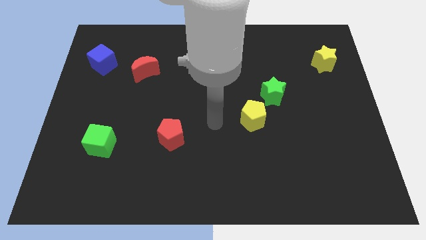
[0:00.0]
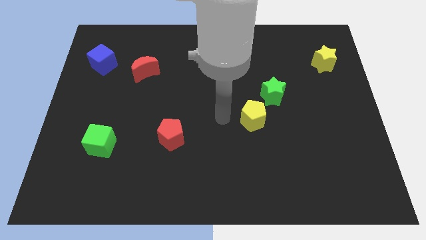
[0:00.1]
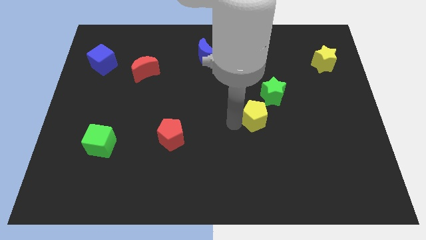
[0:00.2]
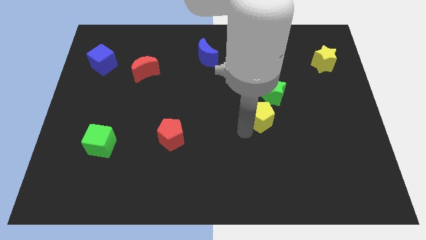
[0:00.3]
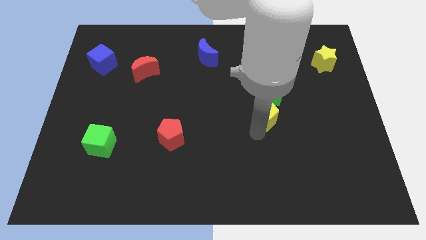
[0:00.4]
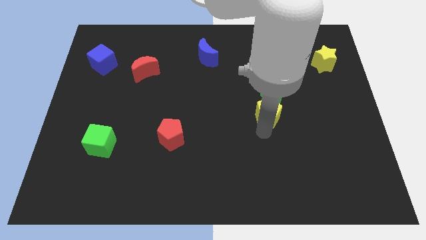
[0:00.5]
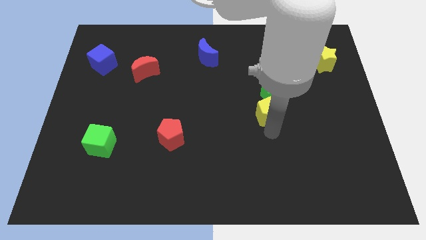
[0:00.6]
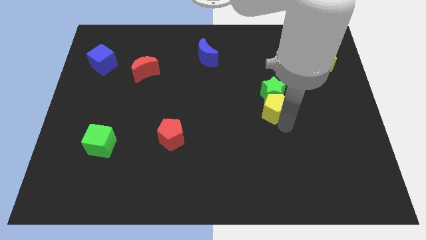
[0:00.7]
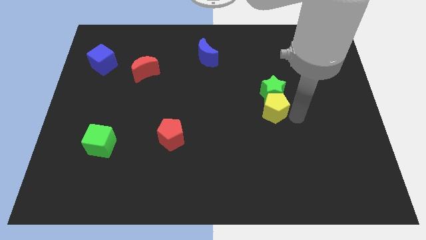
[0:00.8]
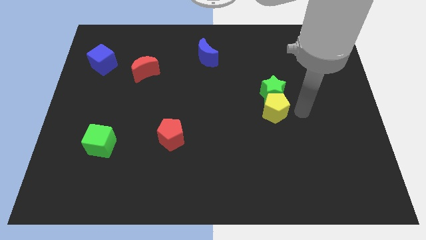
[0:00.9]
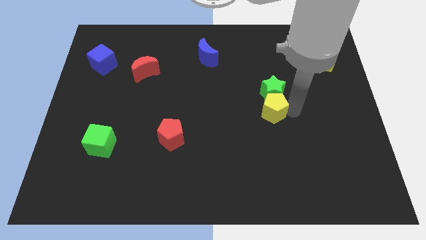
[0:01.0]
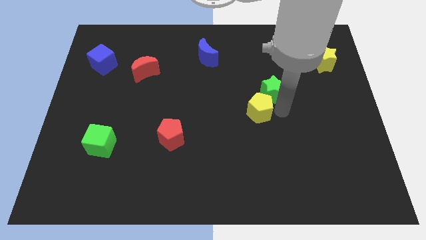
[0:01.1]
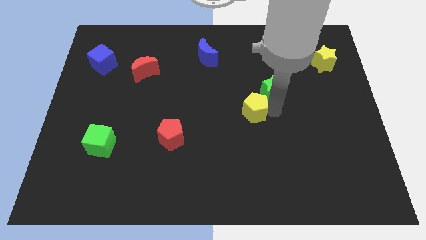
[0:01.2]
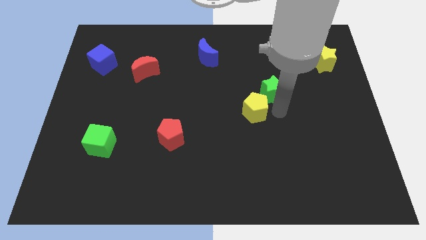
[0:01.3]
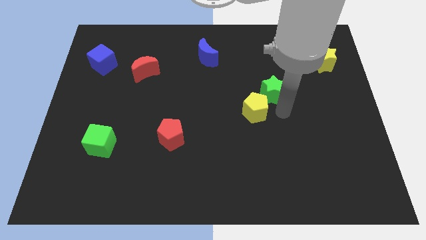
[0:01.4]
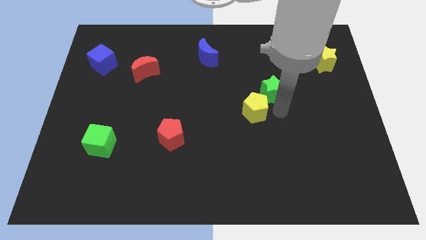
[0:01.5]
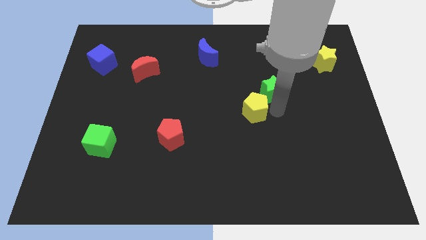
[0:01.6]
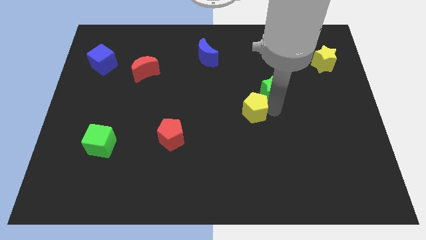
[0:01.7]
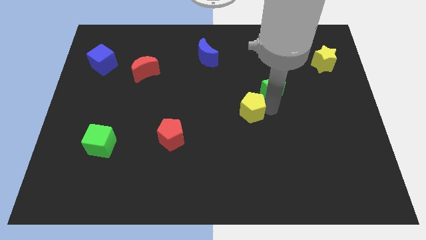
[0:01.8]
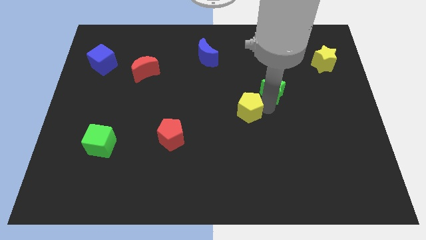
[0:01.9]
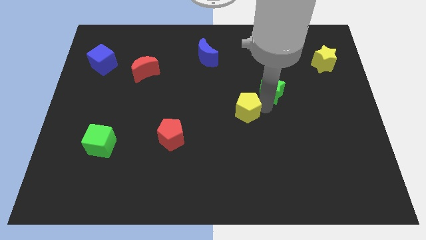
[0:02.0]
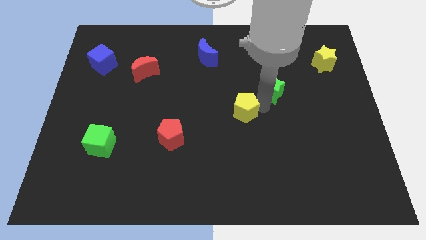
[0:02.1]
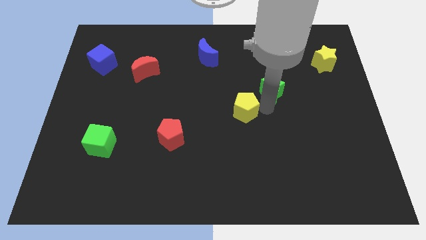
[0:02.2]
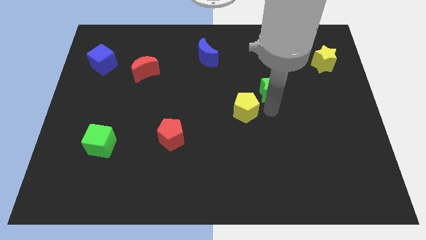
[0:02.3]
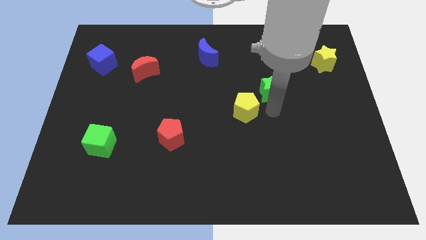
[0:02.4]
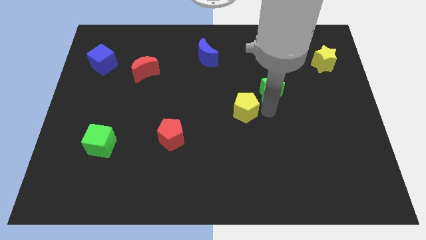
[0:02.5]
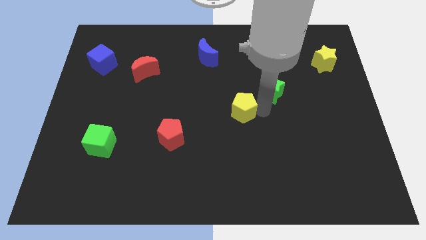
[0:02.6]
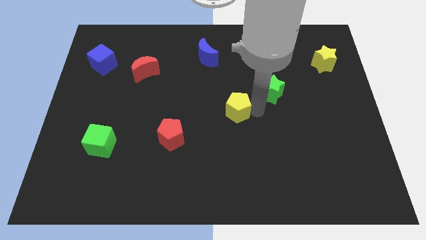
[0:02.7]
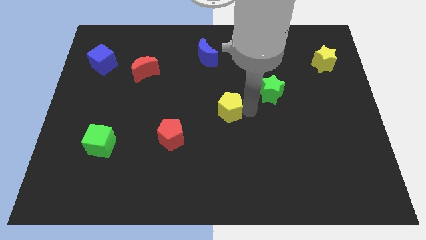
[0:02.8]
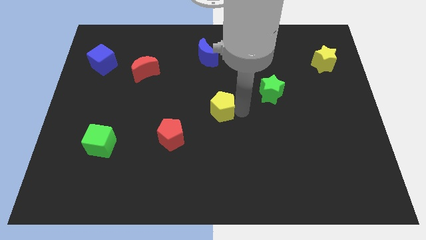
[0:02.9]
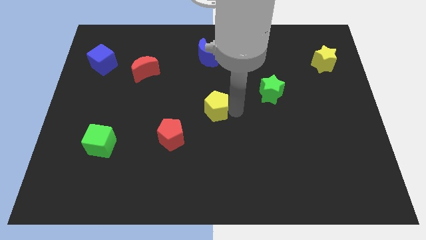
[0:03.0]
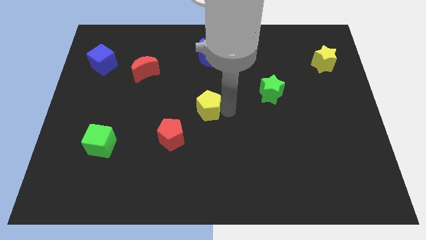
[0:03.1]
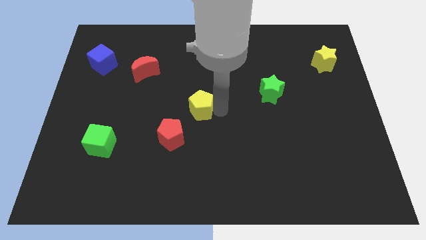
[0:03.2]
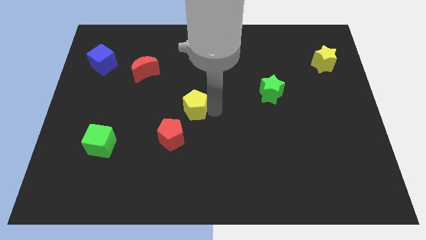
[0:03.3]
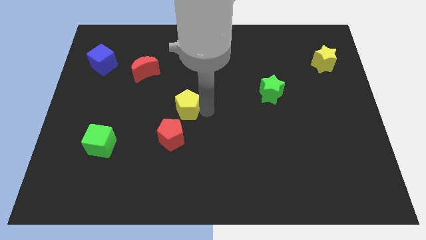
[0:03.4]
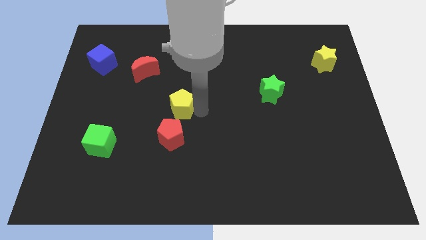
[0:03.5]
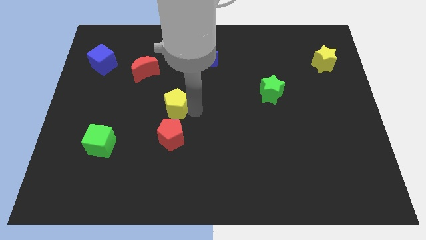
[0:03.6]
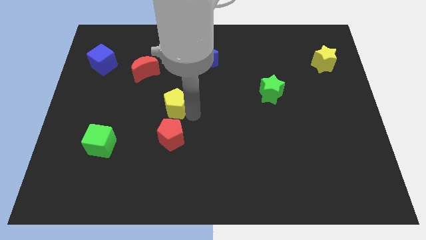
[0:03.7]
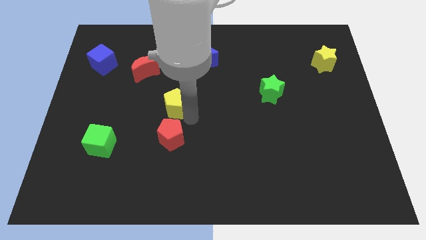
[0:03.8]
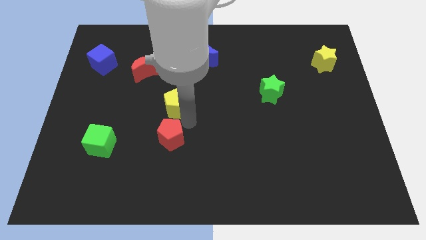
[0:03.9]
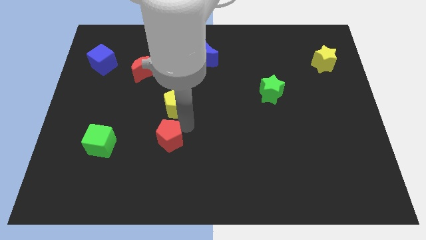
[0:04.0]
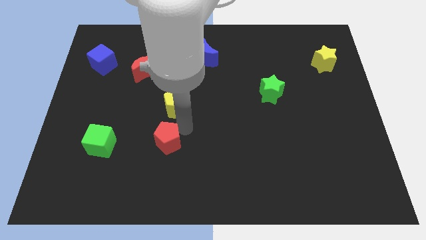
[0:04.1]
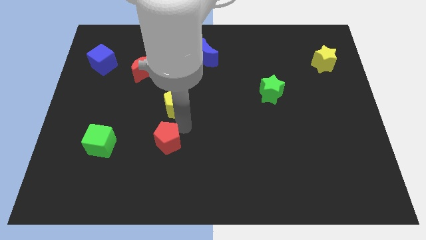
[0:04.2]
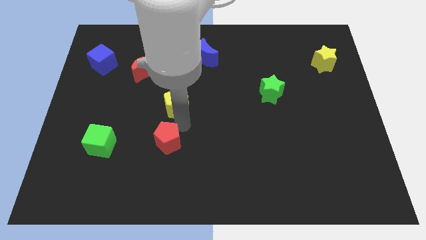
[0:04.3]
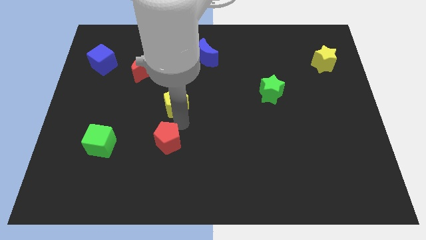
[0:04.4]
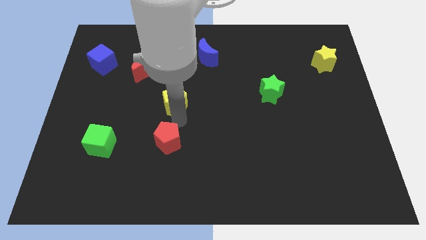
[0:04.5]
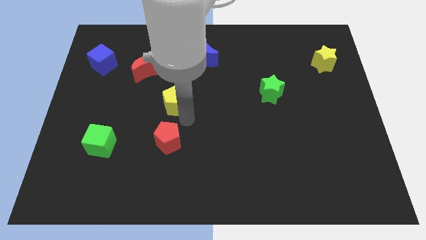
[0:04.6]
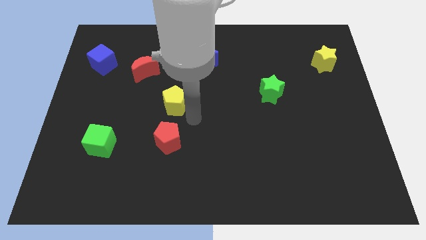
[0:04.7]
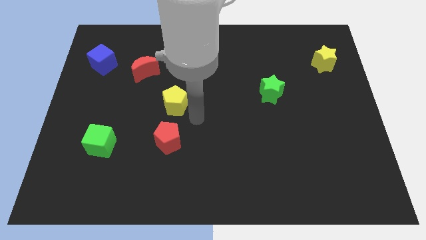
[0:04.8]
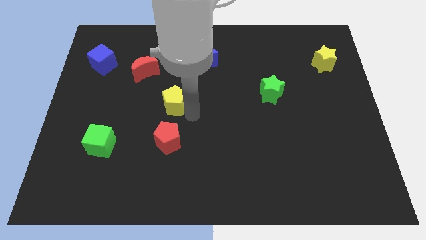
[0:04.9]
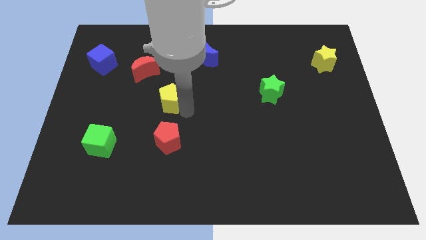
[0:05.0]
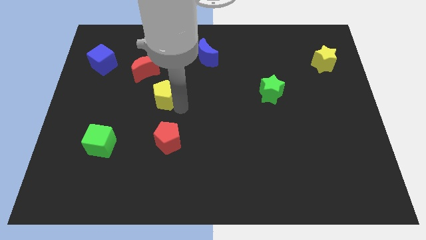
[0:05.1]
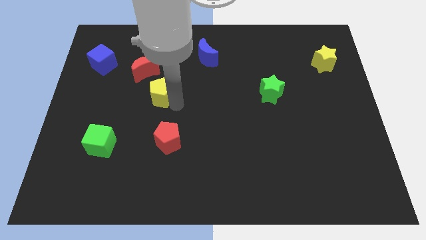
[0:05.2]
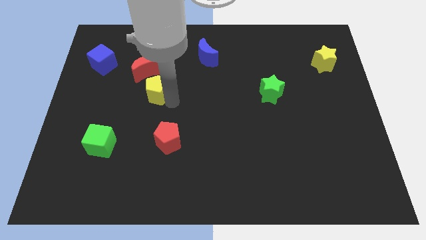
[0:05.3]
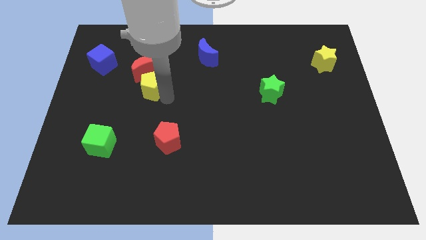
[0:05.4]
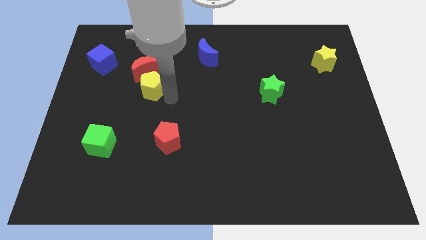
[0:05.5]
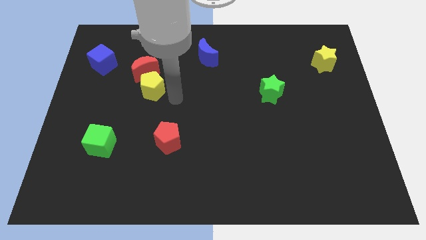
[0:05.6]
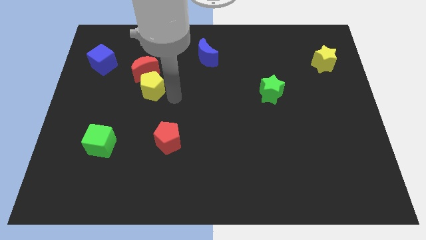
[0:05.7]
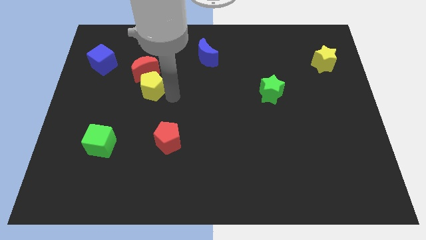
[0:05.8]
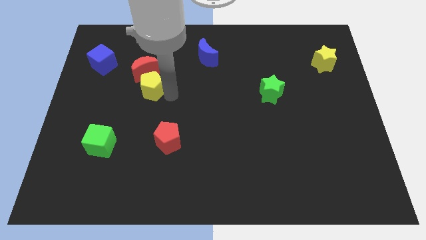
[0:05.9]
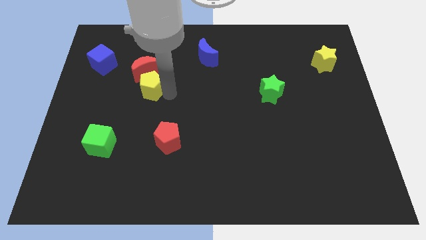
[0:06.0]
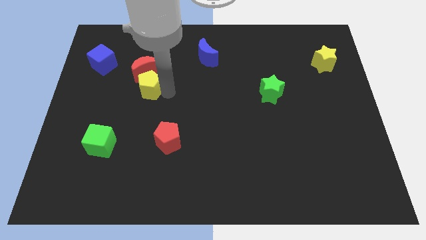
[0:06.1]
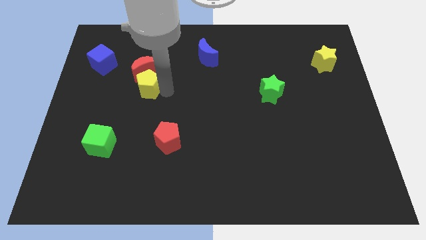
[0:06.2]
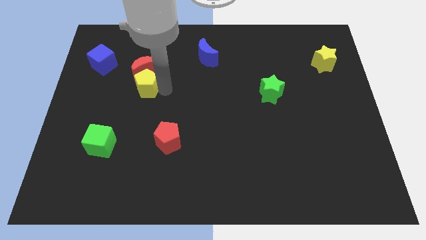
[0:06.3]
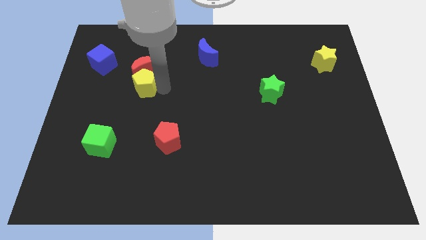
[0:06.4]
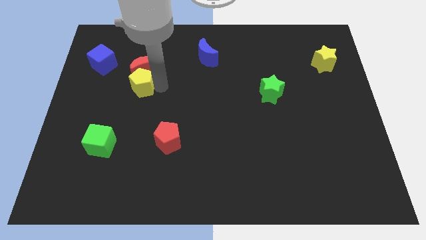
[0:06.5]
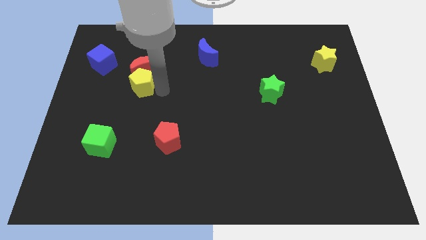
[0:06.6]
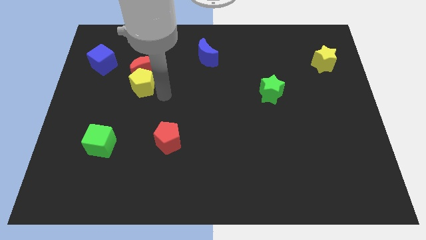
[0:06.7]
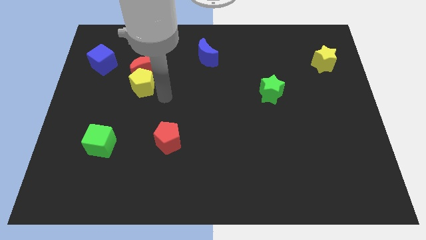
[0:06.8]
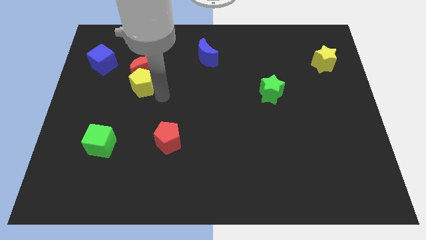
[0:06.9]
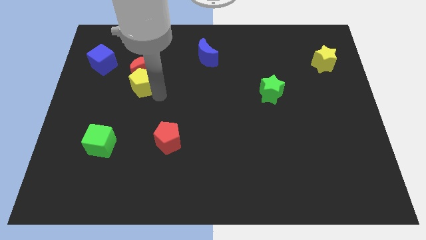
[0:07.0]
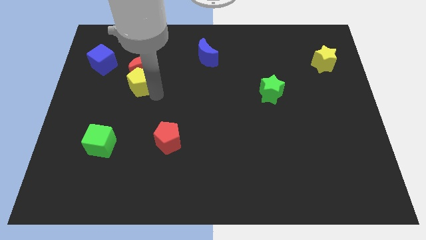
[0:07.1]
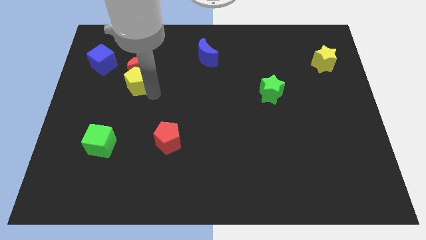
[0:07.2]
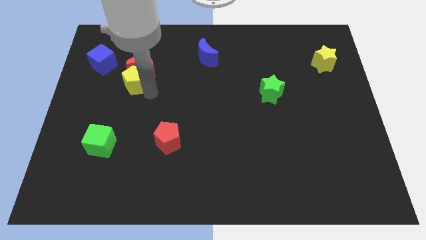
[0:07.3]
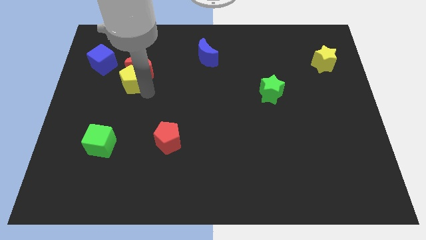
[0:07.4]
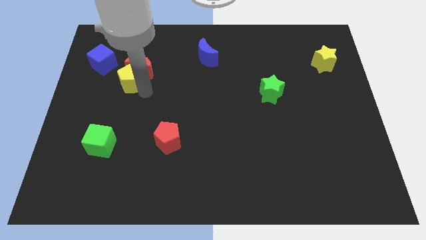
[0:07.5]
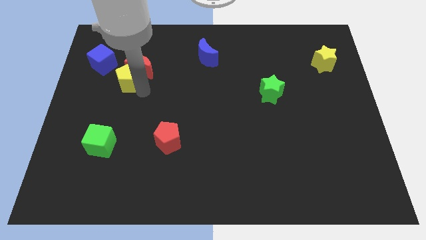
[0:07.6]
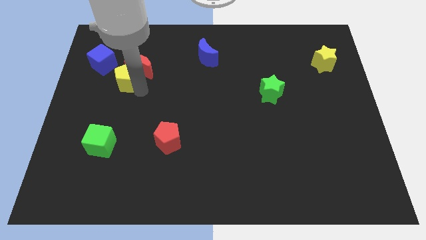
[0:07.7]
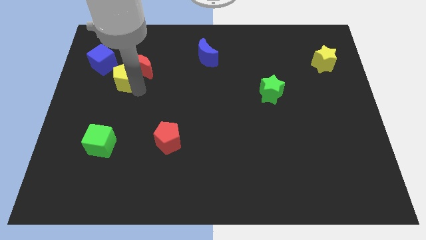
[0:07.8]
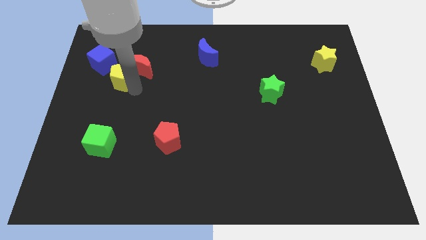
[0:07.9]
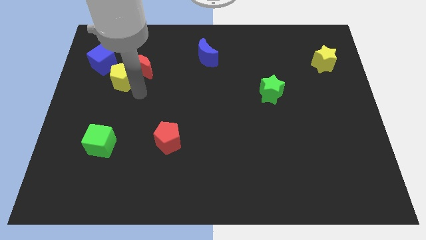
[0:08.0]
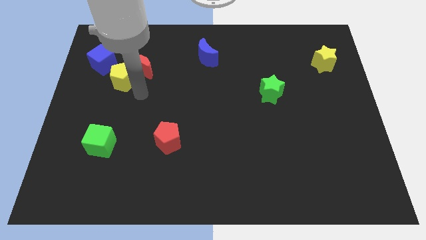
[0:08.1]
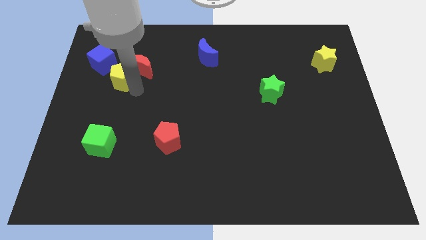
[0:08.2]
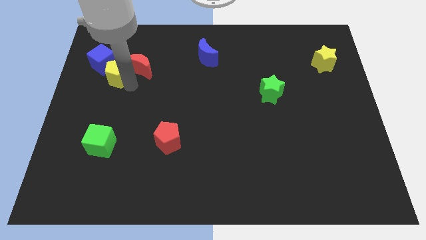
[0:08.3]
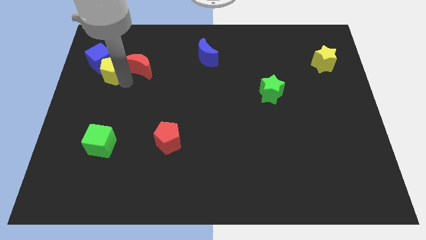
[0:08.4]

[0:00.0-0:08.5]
push the yellow pentagon next to the blue cube
